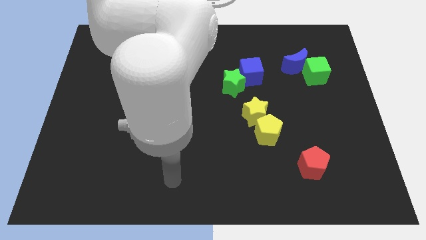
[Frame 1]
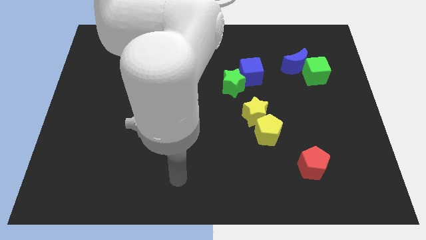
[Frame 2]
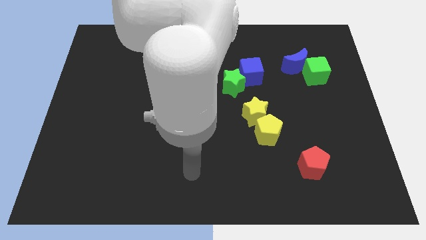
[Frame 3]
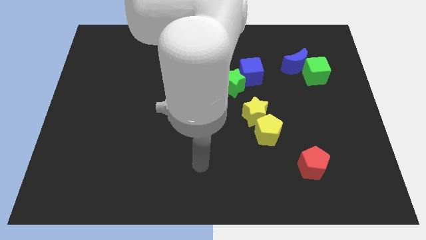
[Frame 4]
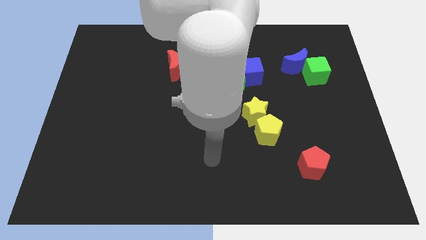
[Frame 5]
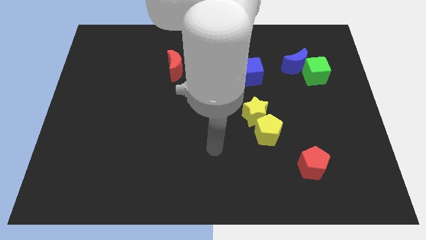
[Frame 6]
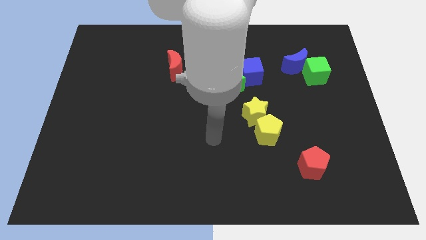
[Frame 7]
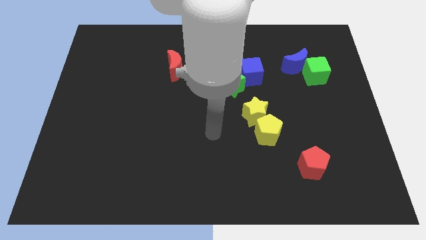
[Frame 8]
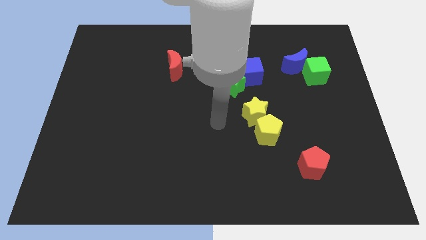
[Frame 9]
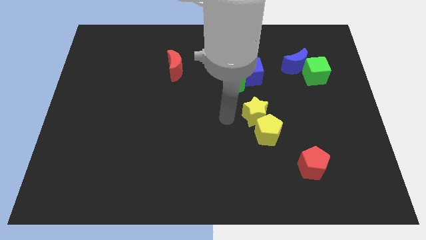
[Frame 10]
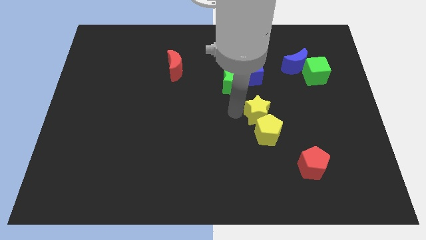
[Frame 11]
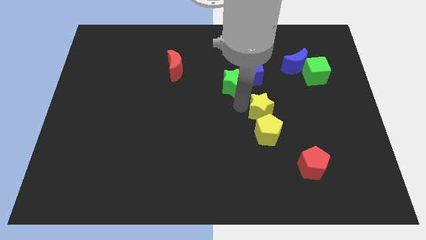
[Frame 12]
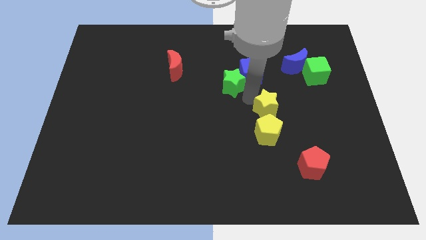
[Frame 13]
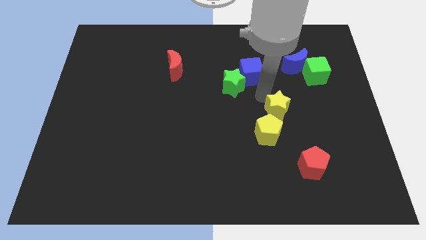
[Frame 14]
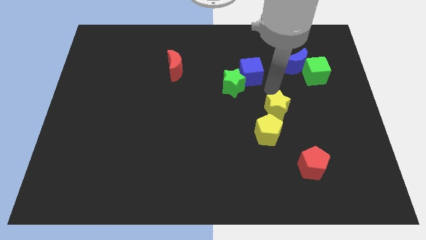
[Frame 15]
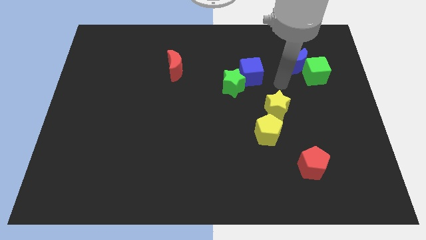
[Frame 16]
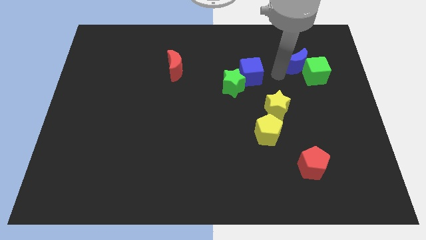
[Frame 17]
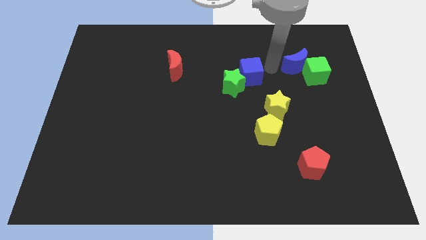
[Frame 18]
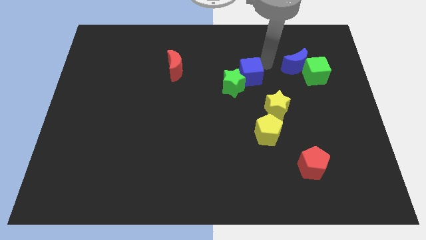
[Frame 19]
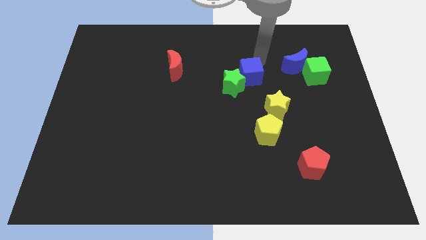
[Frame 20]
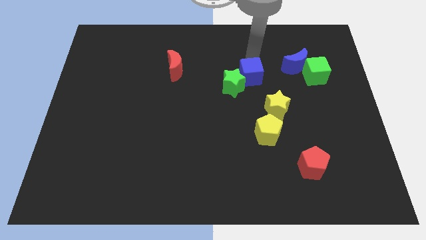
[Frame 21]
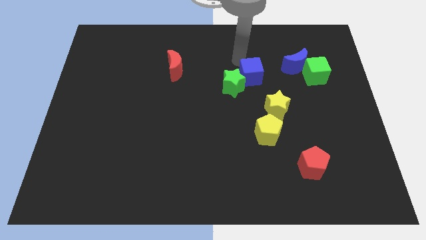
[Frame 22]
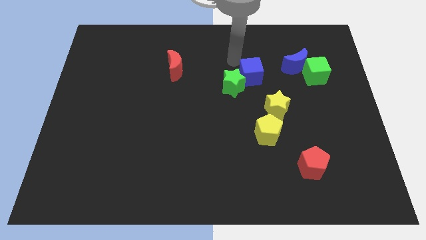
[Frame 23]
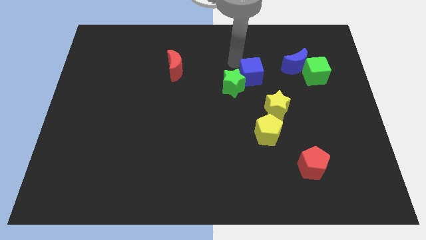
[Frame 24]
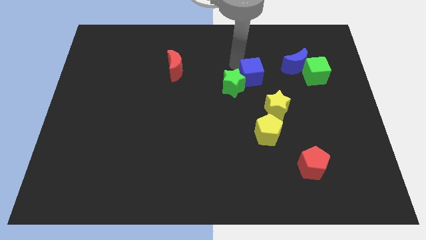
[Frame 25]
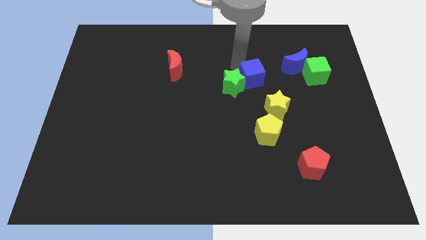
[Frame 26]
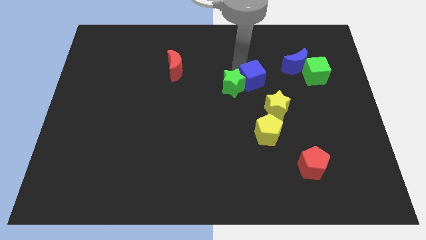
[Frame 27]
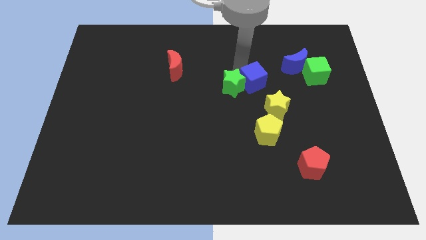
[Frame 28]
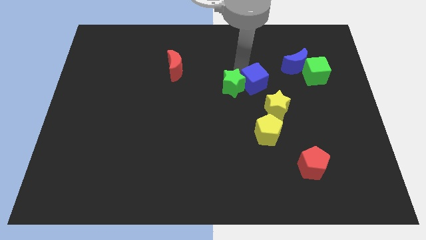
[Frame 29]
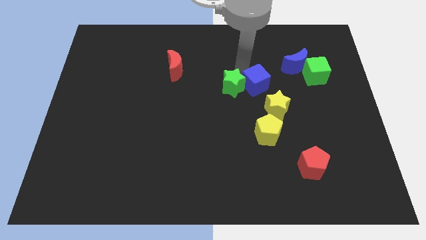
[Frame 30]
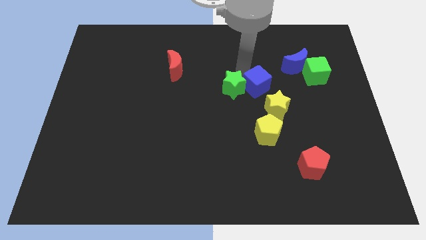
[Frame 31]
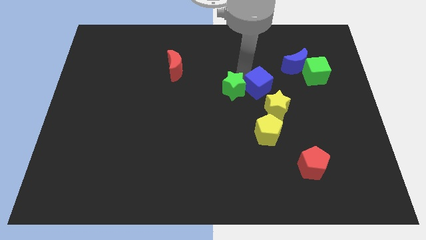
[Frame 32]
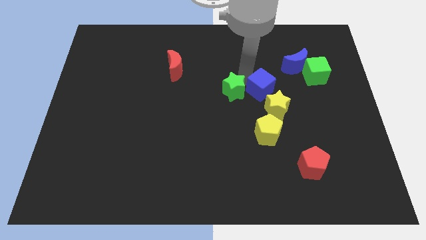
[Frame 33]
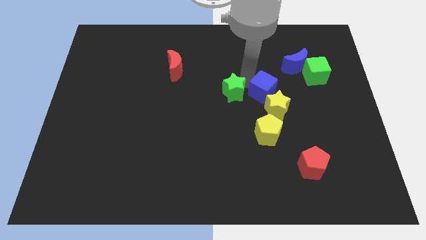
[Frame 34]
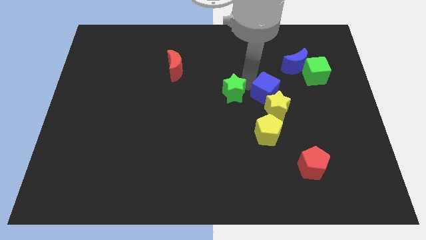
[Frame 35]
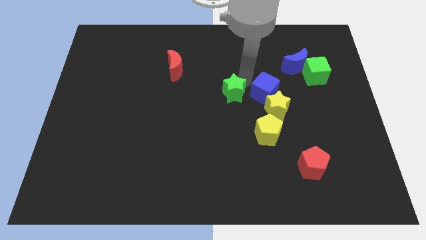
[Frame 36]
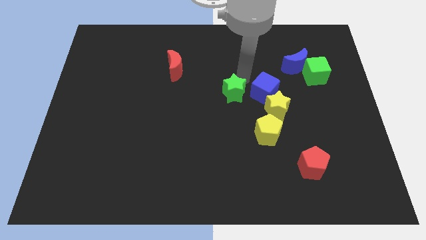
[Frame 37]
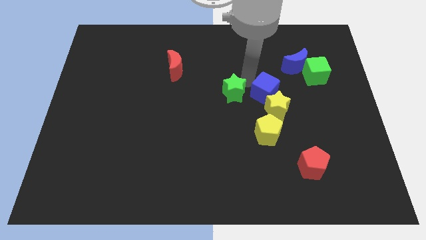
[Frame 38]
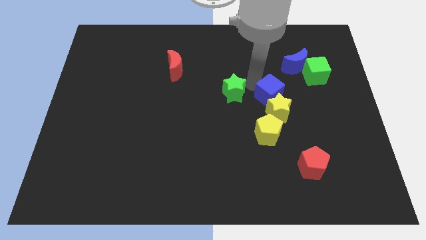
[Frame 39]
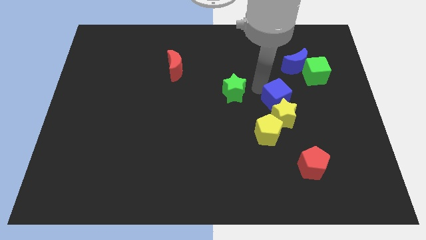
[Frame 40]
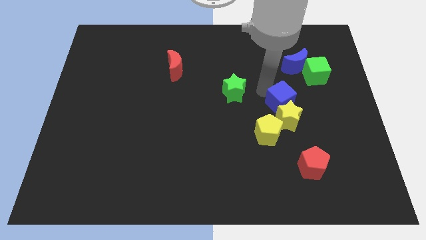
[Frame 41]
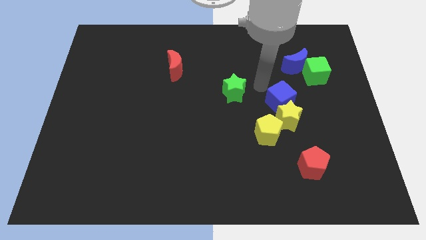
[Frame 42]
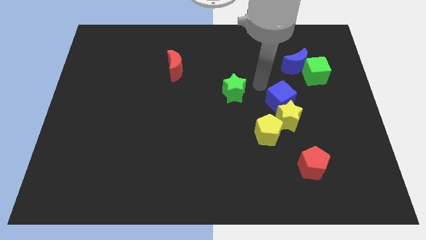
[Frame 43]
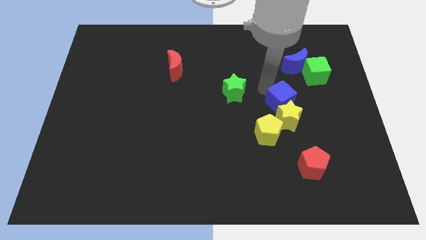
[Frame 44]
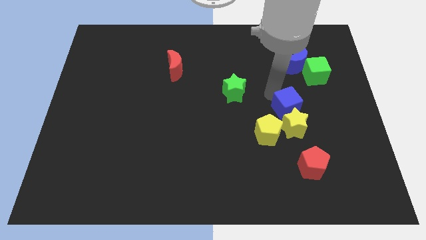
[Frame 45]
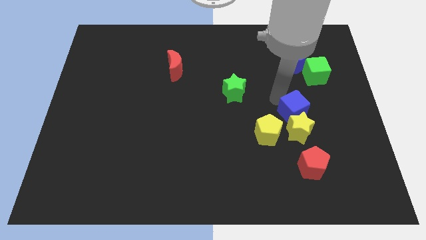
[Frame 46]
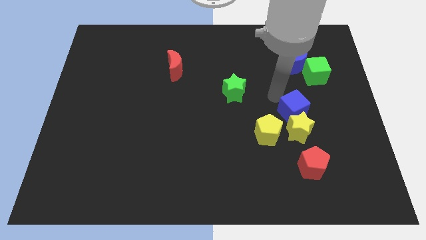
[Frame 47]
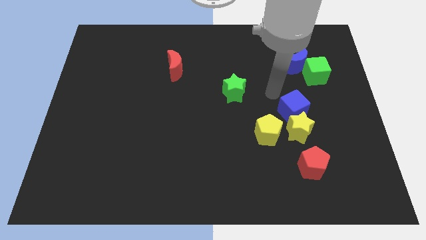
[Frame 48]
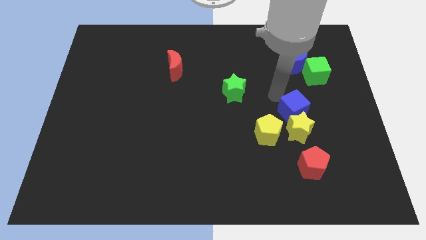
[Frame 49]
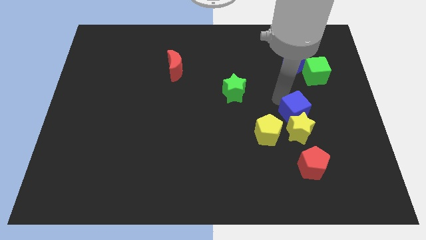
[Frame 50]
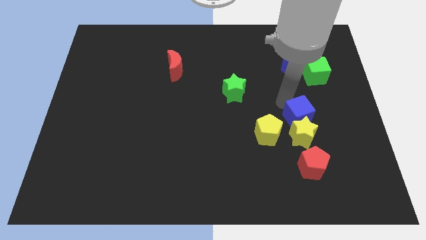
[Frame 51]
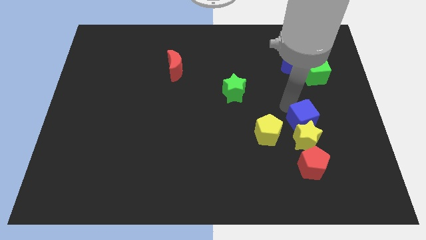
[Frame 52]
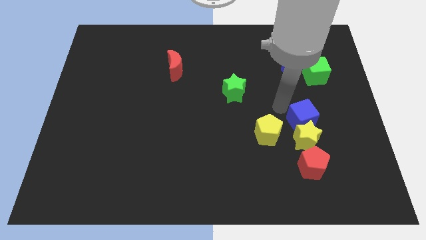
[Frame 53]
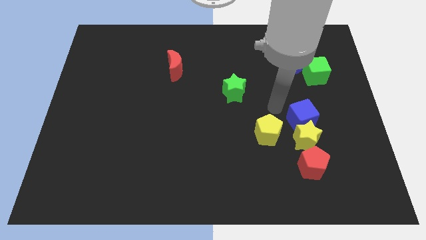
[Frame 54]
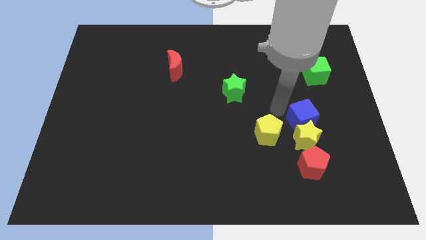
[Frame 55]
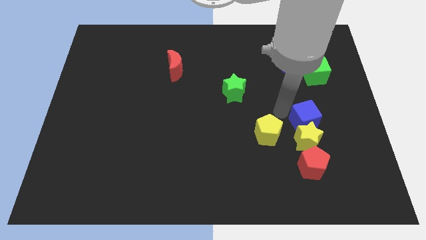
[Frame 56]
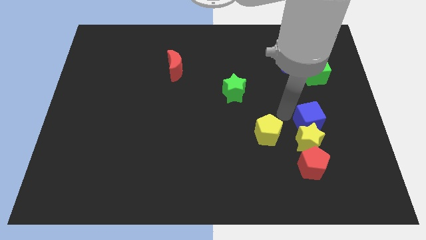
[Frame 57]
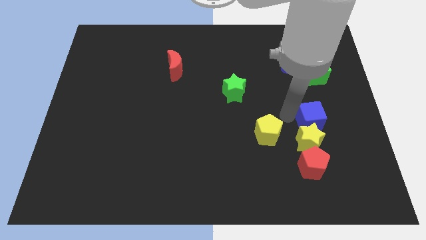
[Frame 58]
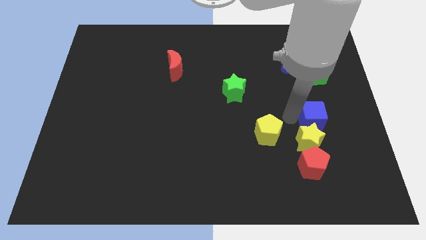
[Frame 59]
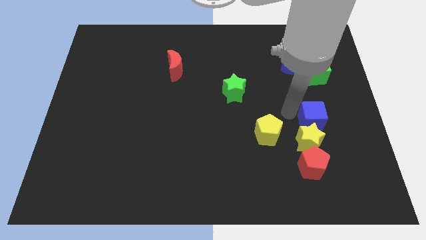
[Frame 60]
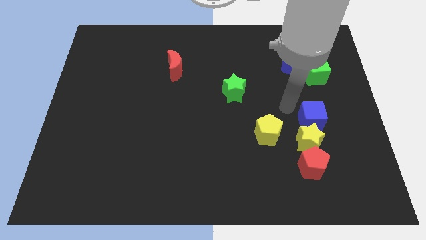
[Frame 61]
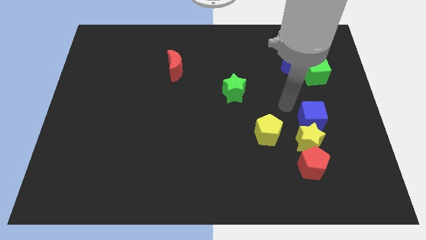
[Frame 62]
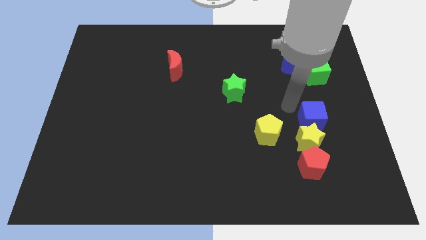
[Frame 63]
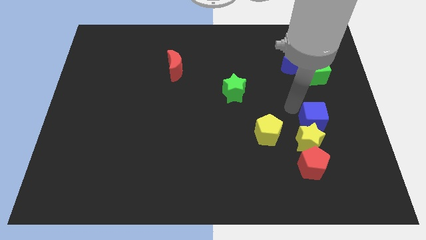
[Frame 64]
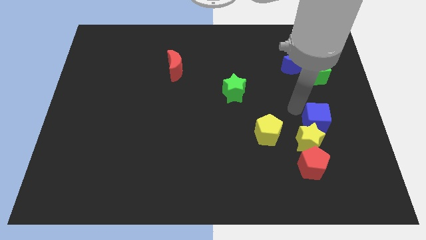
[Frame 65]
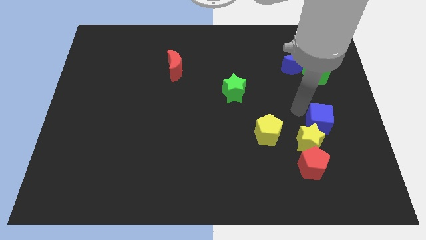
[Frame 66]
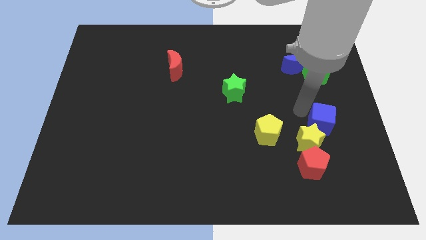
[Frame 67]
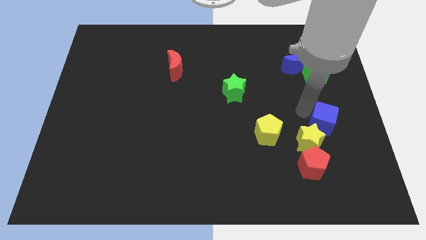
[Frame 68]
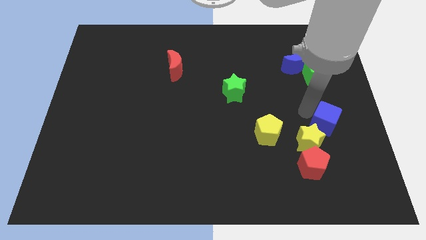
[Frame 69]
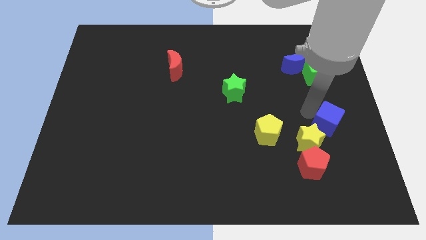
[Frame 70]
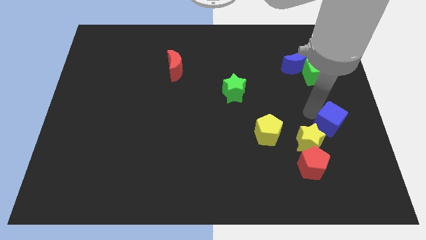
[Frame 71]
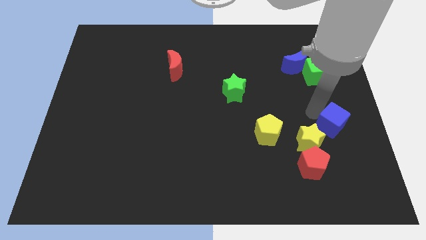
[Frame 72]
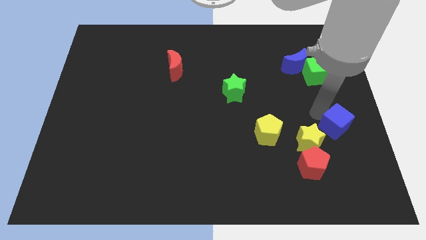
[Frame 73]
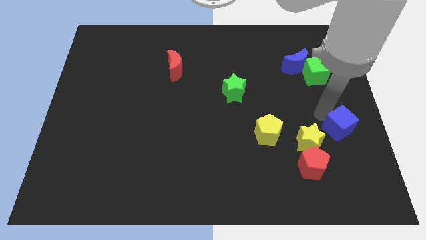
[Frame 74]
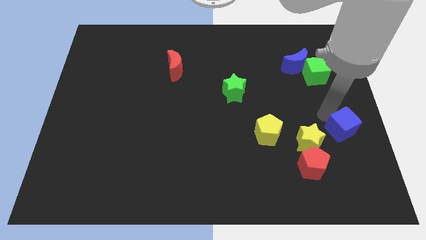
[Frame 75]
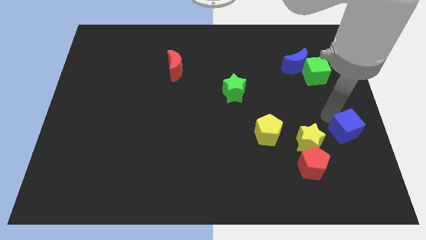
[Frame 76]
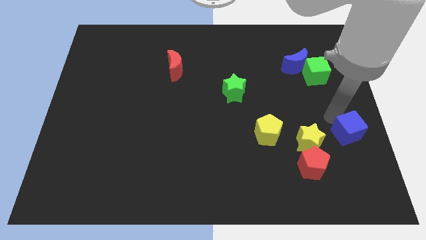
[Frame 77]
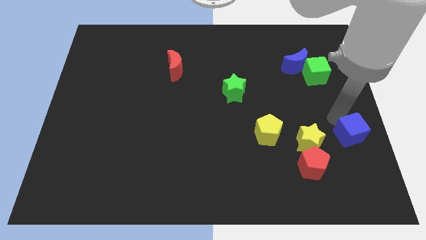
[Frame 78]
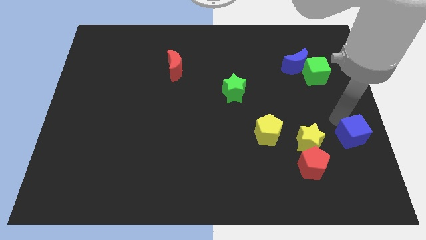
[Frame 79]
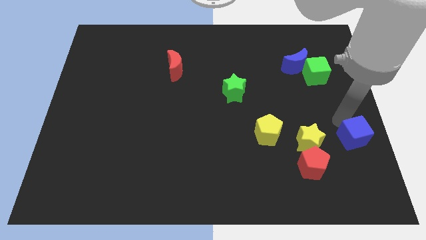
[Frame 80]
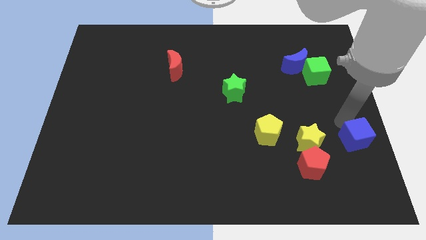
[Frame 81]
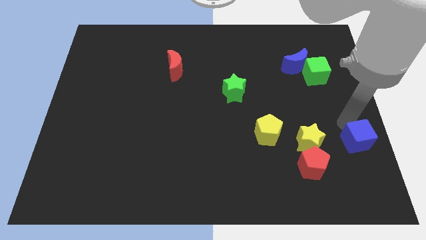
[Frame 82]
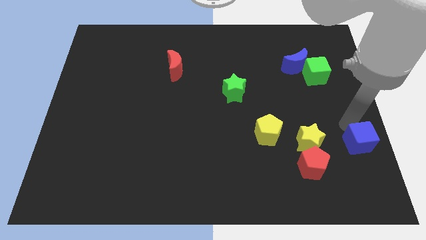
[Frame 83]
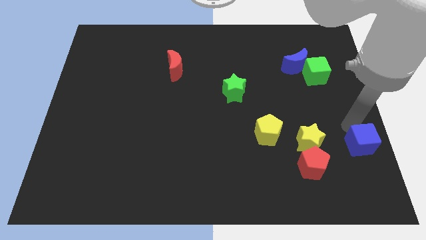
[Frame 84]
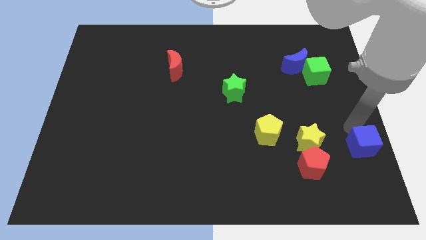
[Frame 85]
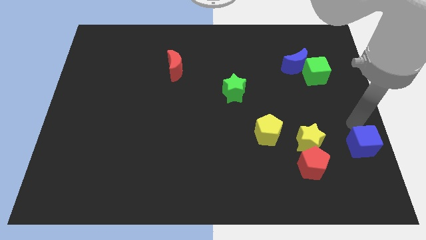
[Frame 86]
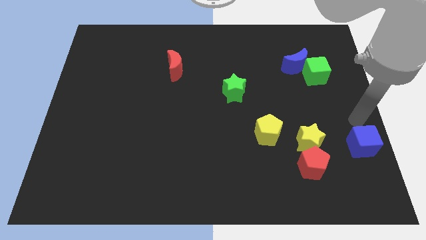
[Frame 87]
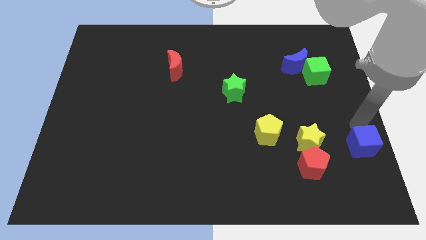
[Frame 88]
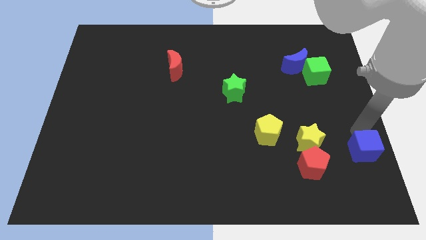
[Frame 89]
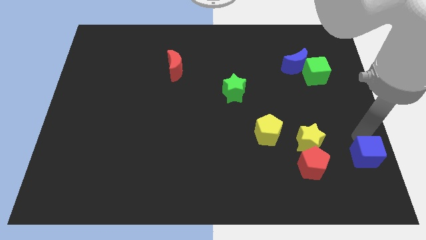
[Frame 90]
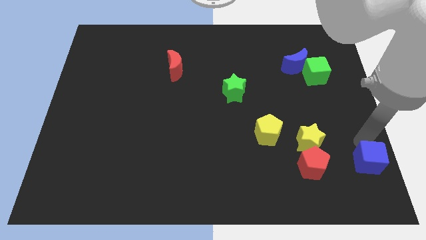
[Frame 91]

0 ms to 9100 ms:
slide the blue cube to the bottom right corner
